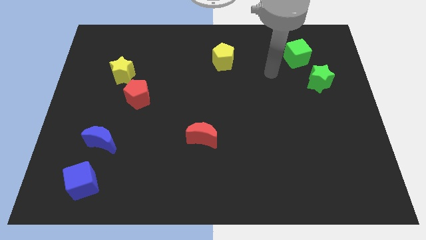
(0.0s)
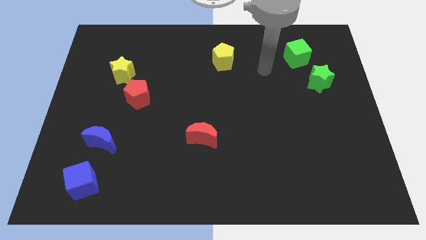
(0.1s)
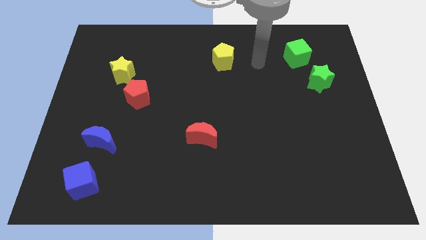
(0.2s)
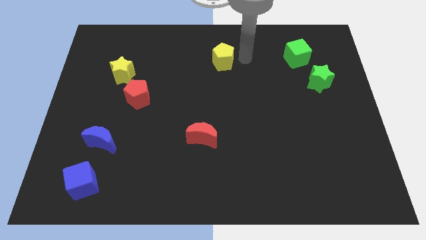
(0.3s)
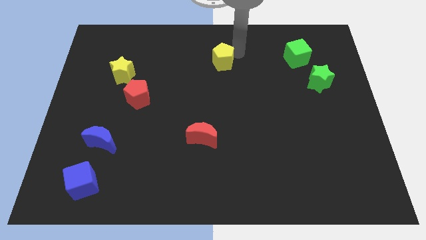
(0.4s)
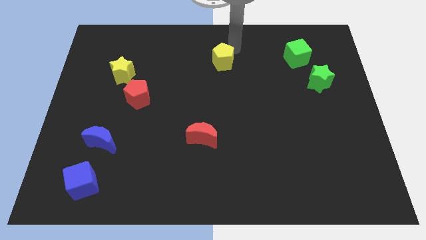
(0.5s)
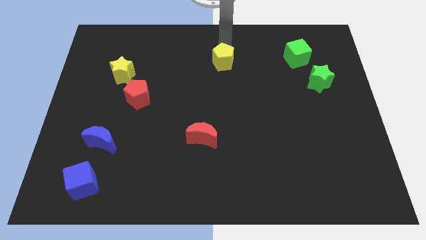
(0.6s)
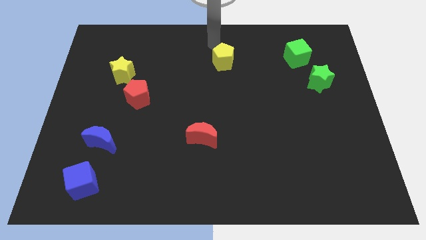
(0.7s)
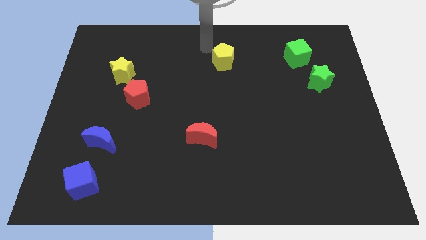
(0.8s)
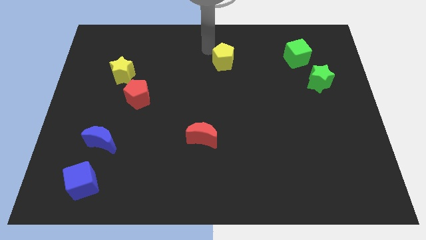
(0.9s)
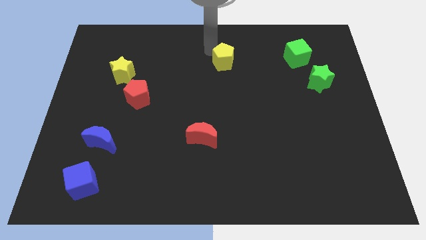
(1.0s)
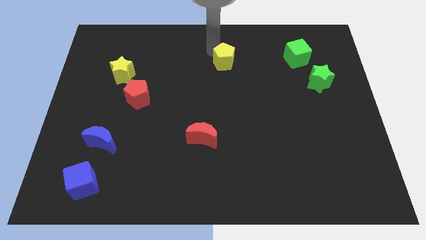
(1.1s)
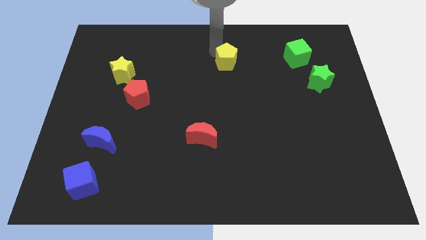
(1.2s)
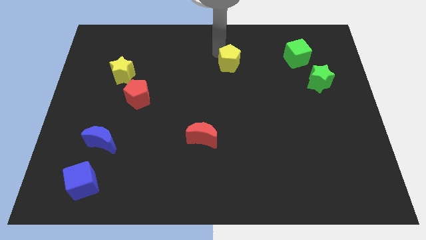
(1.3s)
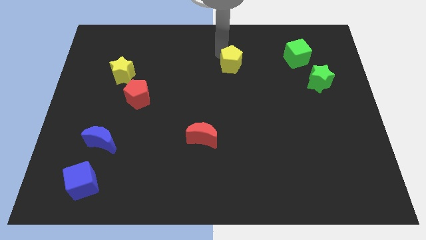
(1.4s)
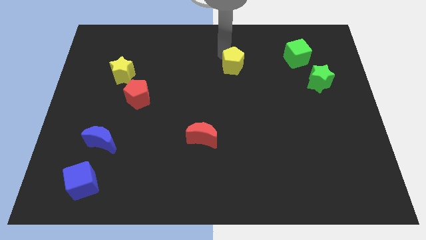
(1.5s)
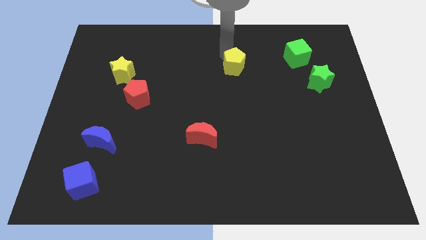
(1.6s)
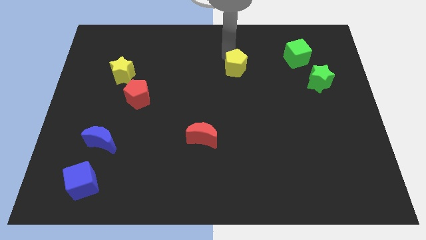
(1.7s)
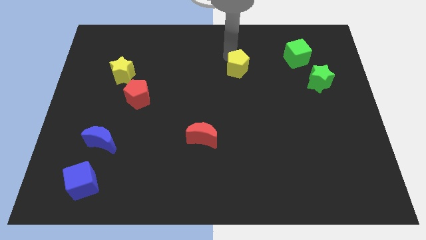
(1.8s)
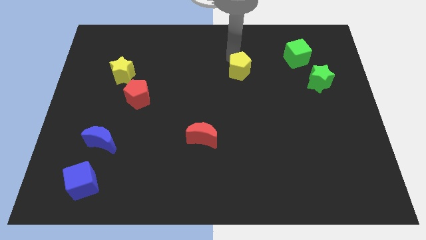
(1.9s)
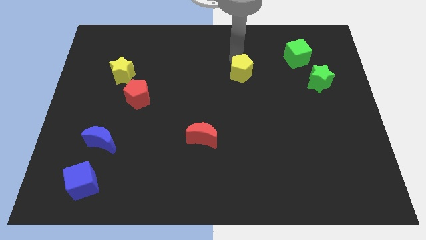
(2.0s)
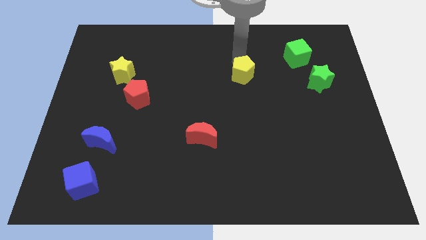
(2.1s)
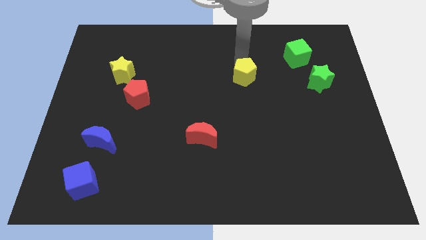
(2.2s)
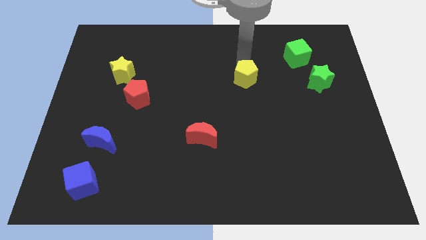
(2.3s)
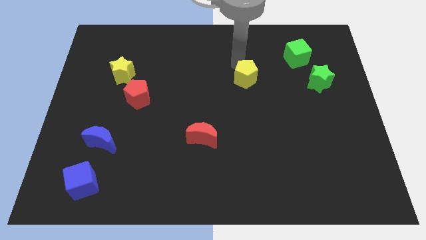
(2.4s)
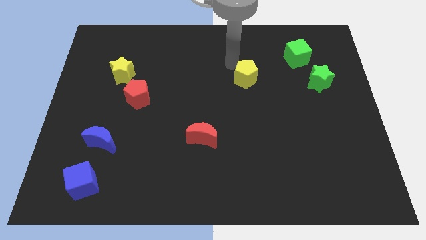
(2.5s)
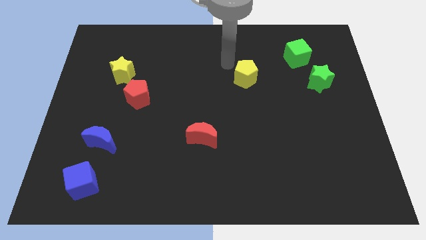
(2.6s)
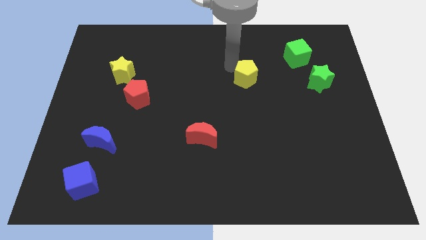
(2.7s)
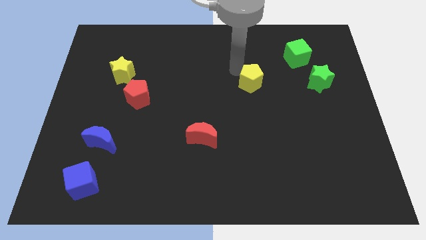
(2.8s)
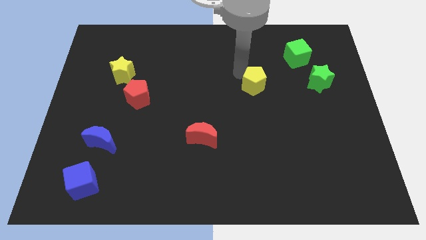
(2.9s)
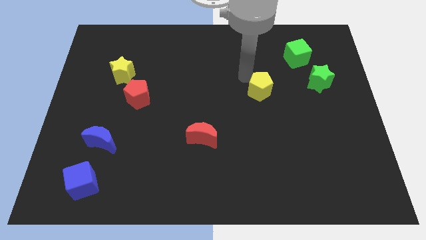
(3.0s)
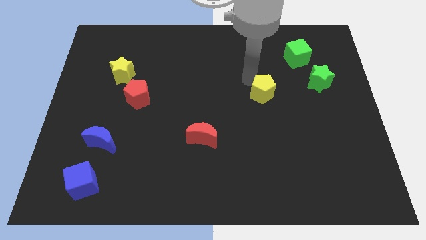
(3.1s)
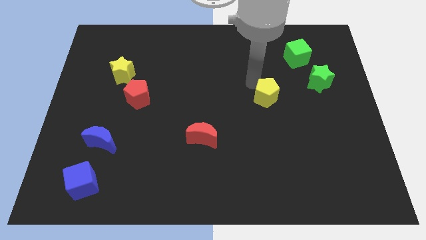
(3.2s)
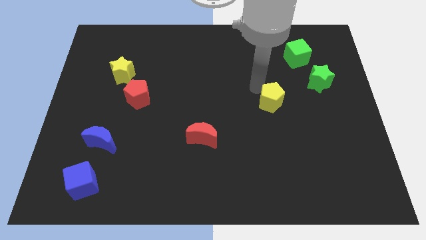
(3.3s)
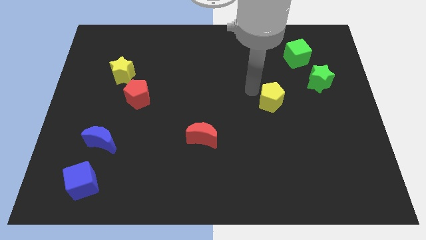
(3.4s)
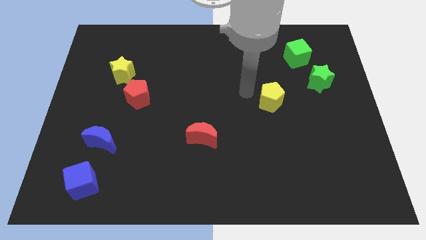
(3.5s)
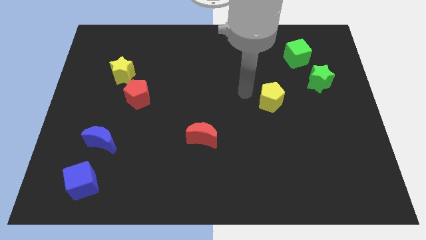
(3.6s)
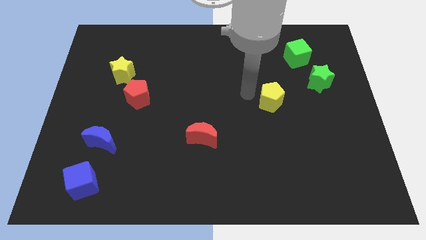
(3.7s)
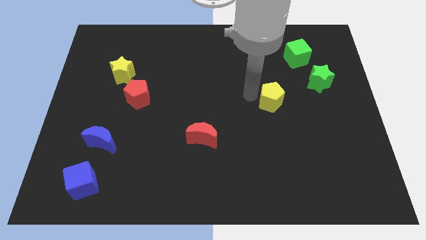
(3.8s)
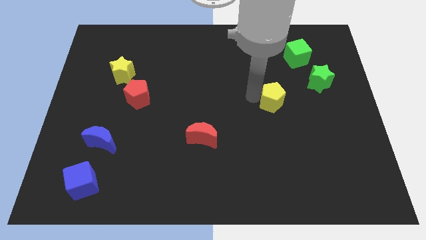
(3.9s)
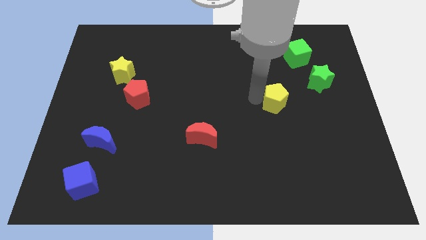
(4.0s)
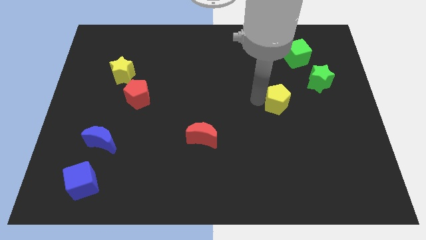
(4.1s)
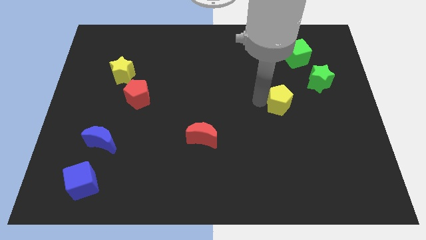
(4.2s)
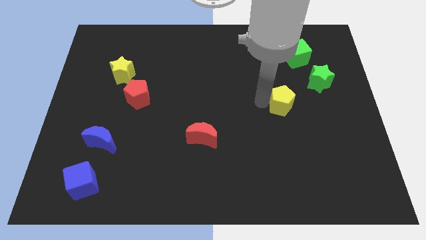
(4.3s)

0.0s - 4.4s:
move the yellow pentagon diagonally downwards and right

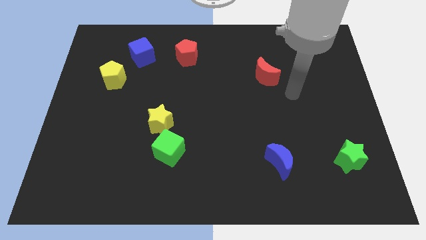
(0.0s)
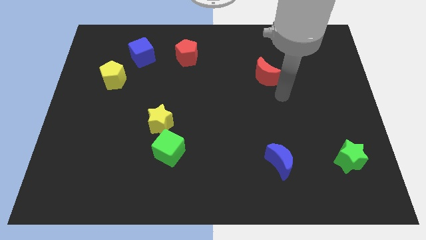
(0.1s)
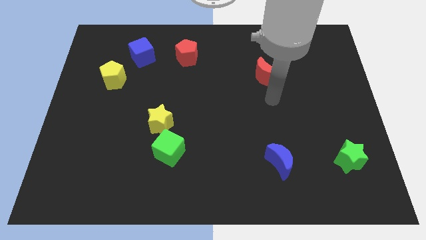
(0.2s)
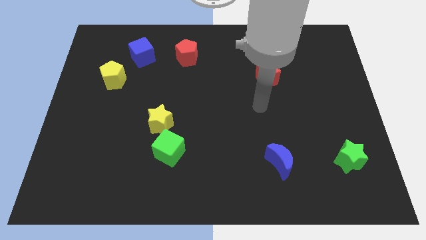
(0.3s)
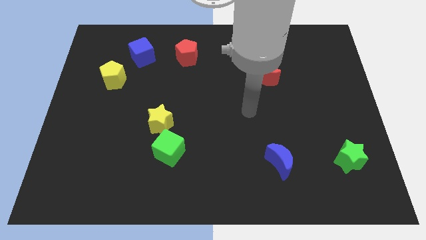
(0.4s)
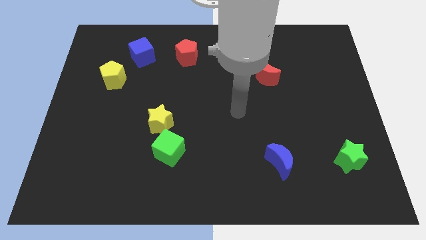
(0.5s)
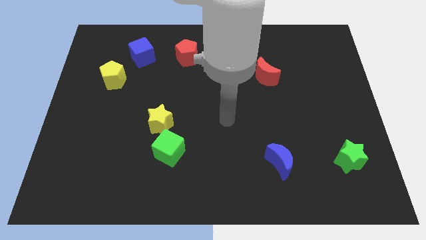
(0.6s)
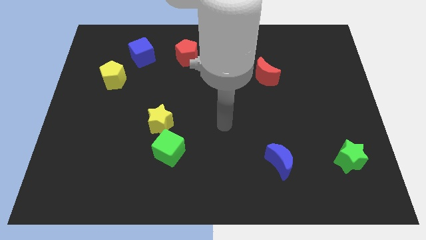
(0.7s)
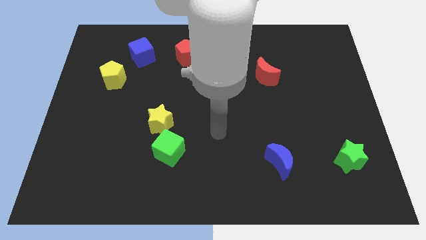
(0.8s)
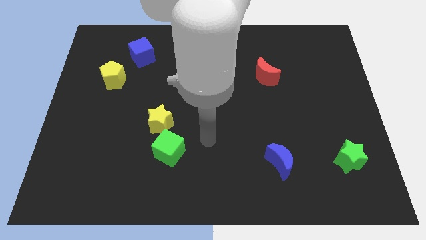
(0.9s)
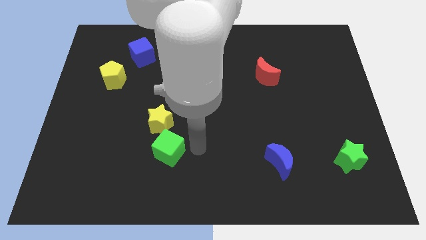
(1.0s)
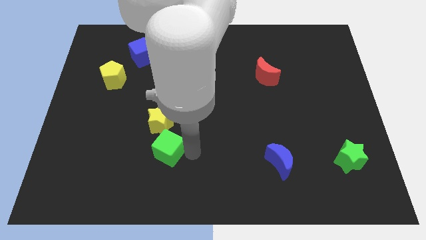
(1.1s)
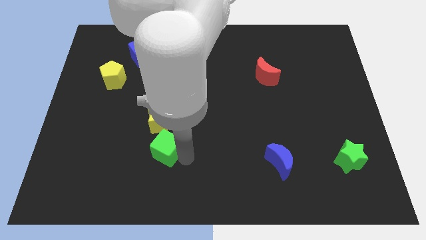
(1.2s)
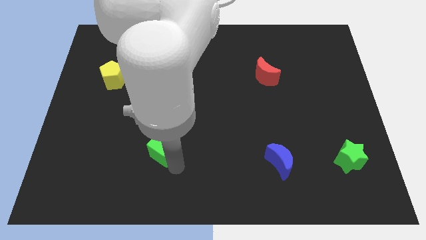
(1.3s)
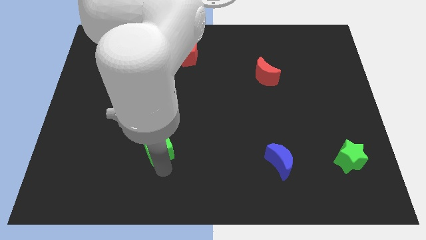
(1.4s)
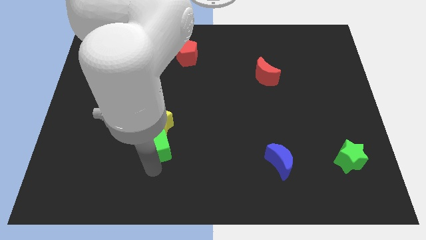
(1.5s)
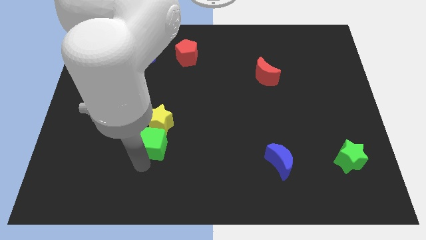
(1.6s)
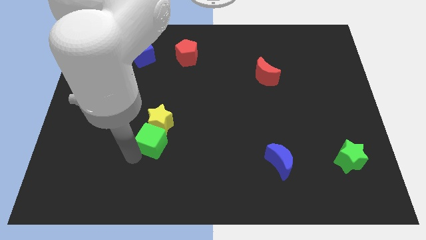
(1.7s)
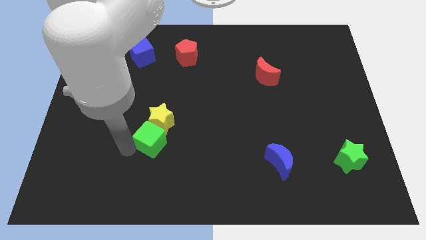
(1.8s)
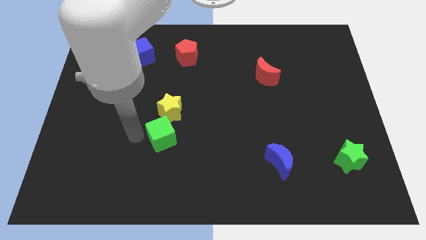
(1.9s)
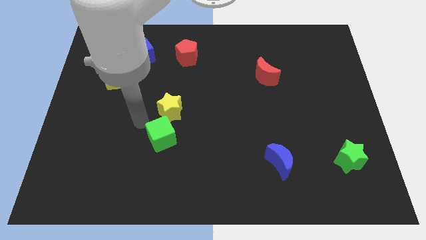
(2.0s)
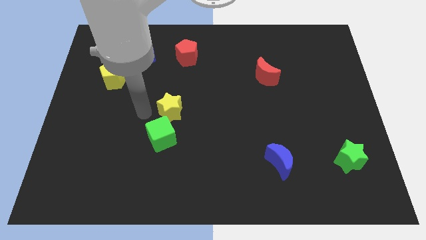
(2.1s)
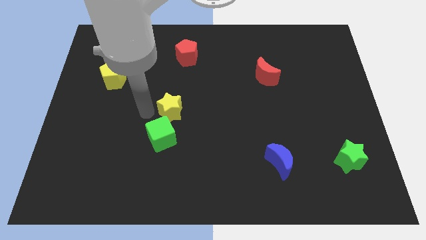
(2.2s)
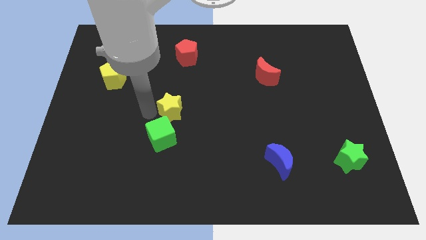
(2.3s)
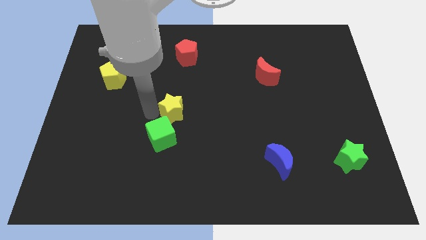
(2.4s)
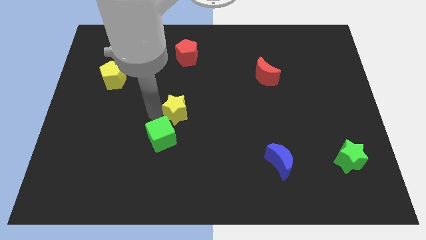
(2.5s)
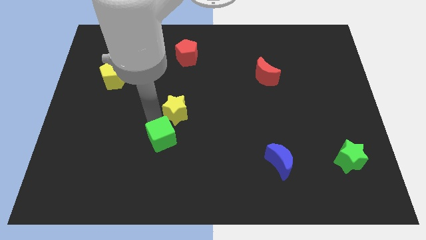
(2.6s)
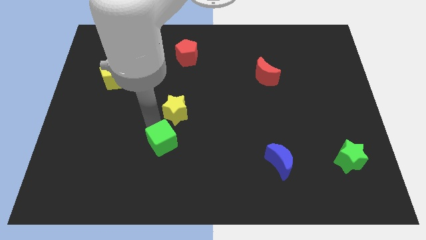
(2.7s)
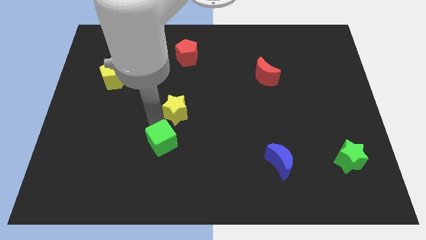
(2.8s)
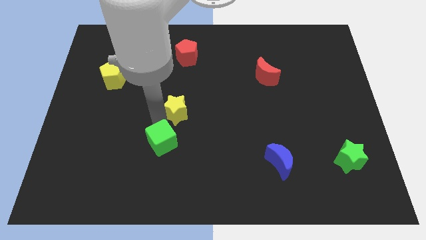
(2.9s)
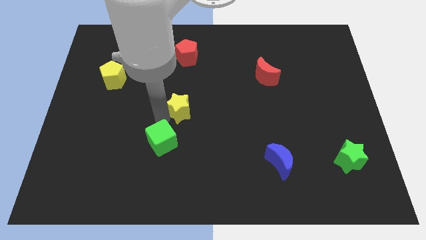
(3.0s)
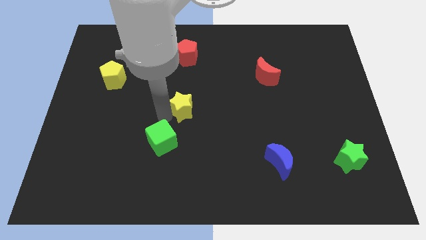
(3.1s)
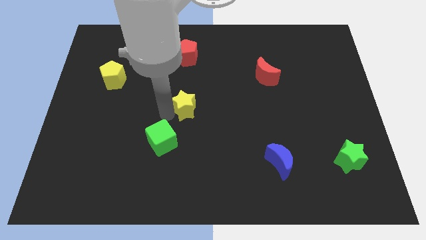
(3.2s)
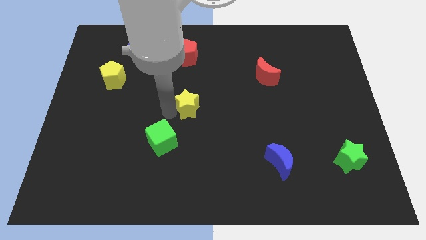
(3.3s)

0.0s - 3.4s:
slightly slide the yellow star up and to the right

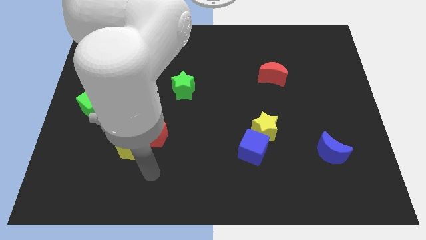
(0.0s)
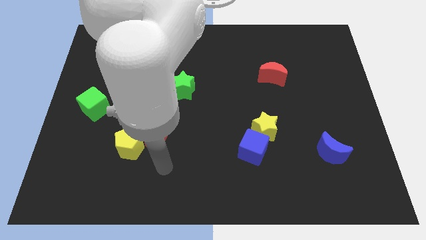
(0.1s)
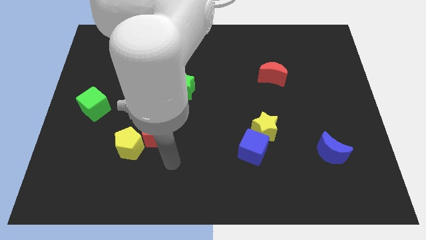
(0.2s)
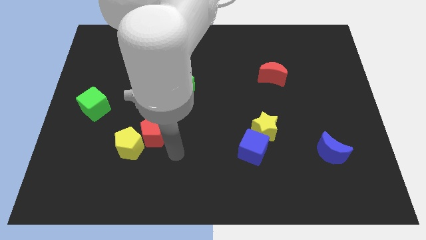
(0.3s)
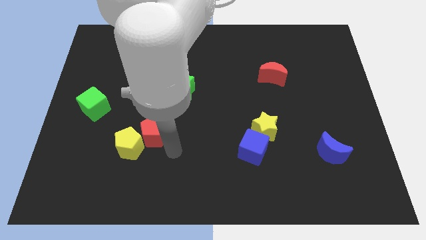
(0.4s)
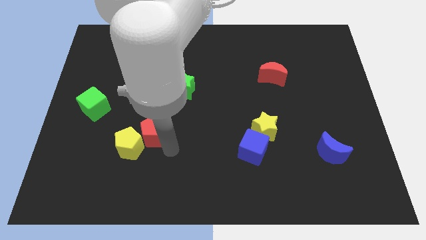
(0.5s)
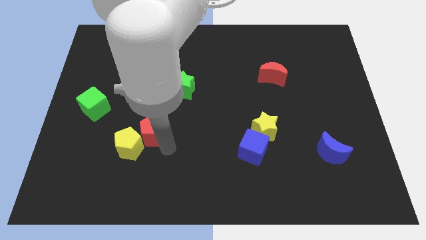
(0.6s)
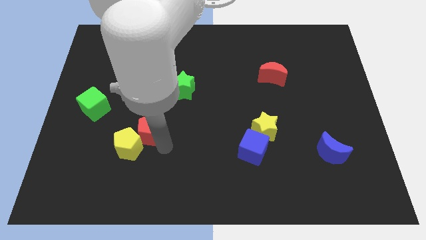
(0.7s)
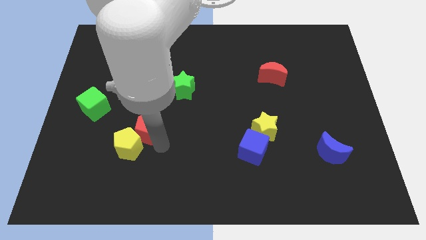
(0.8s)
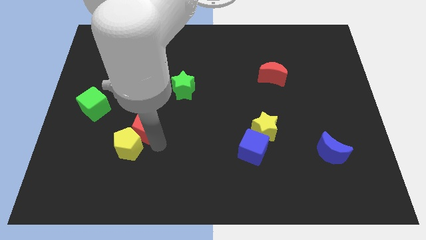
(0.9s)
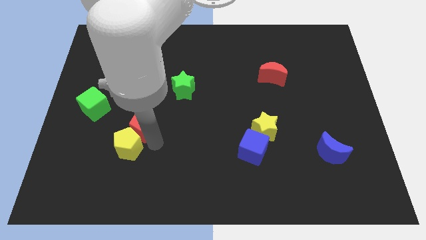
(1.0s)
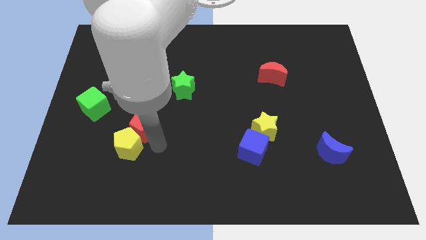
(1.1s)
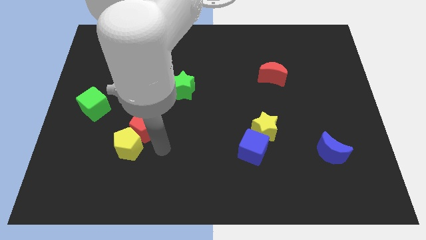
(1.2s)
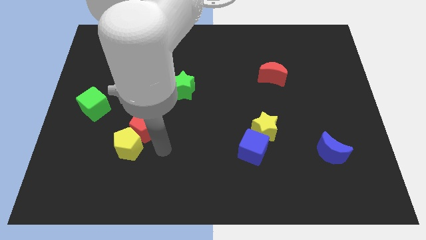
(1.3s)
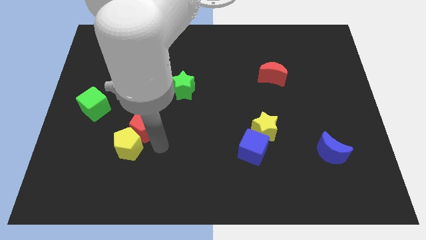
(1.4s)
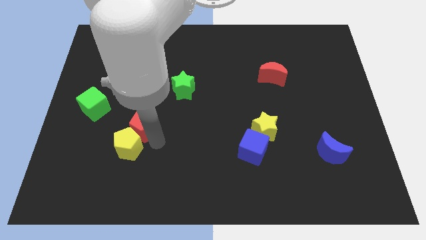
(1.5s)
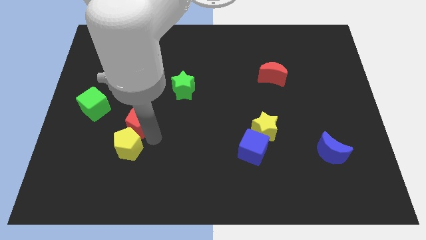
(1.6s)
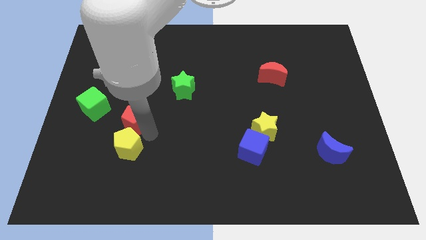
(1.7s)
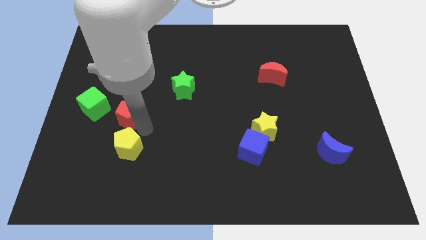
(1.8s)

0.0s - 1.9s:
slightly push the red pentagon upwards and to the left
